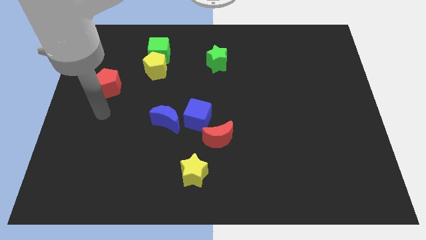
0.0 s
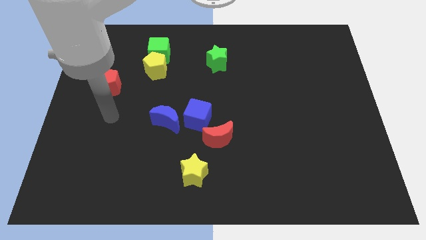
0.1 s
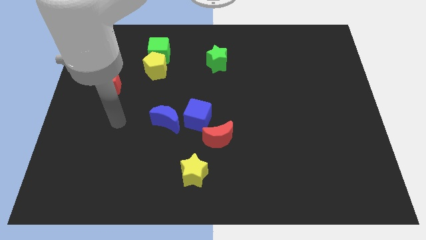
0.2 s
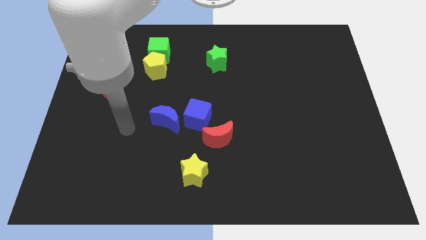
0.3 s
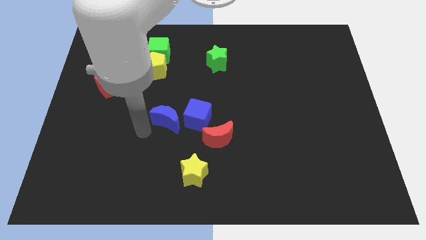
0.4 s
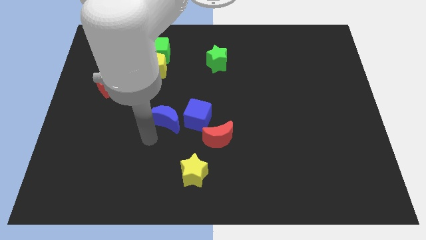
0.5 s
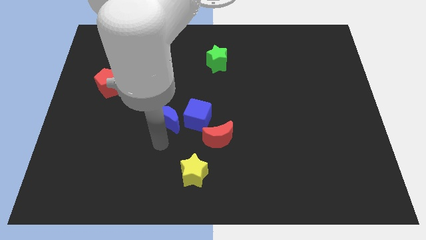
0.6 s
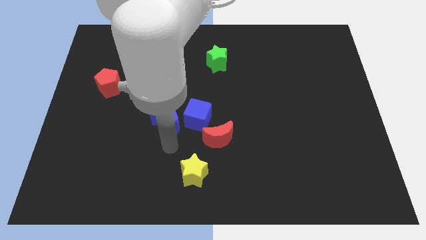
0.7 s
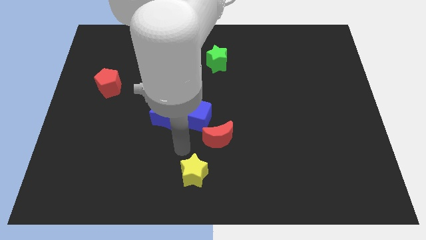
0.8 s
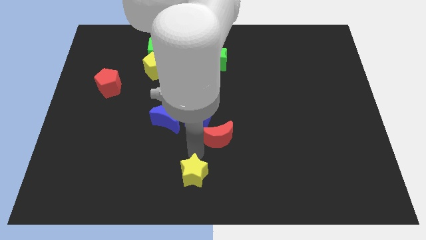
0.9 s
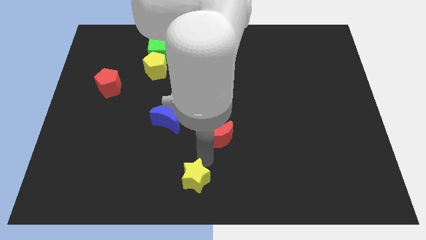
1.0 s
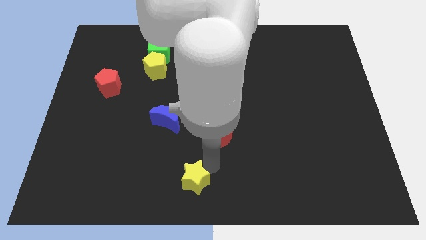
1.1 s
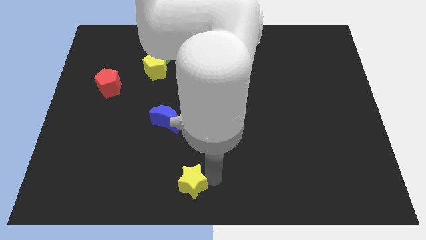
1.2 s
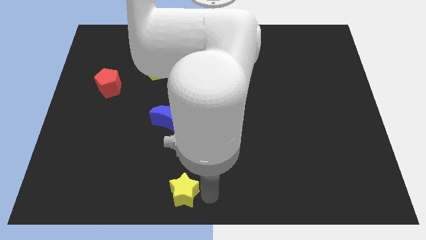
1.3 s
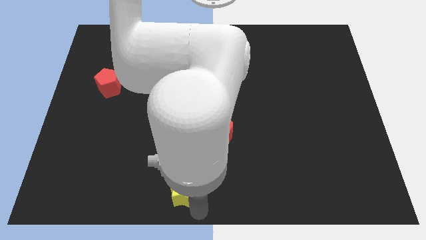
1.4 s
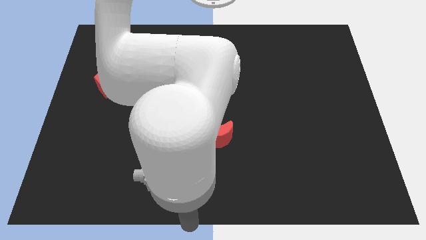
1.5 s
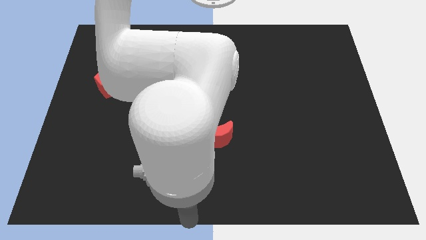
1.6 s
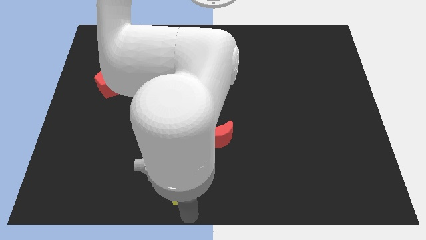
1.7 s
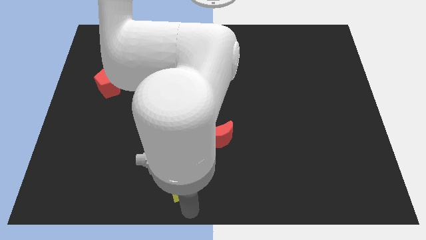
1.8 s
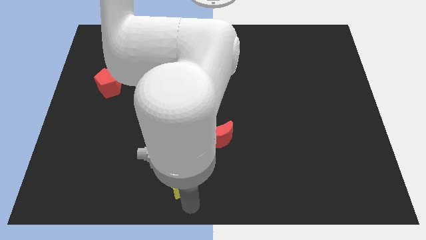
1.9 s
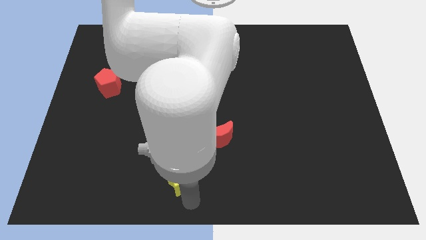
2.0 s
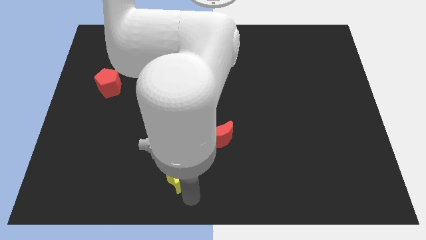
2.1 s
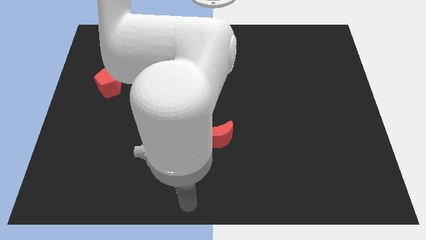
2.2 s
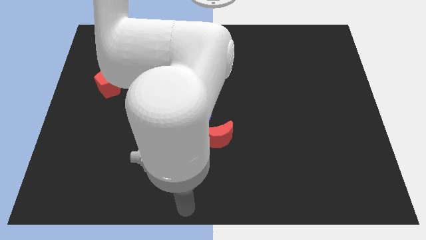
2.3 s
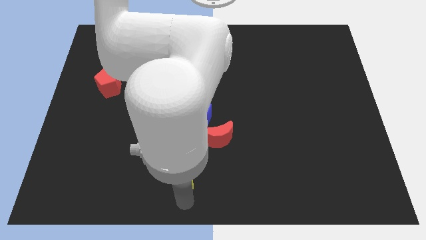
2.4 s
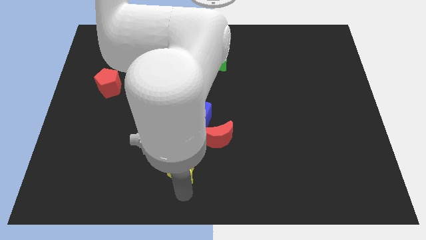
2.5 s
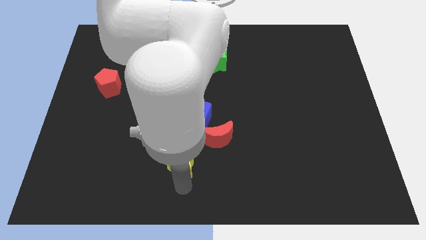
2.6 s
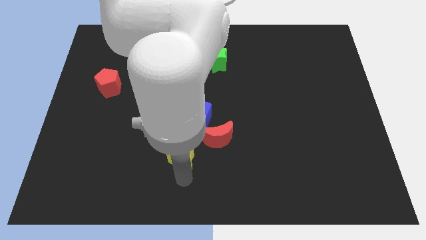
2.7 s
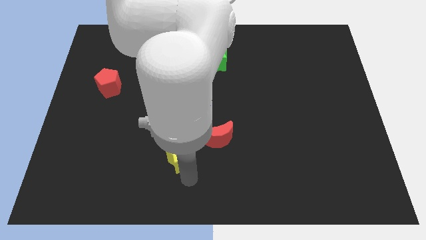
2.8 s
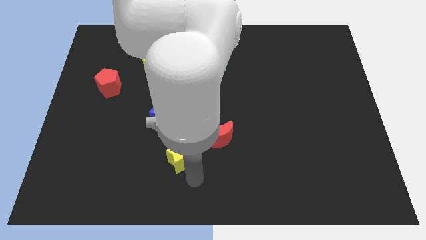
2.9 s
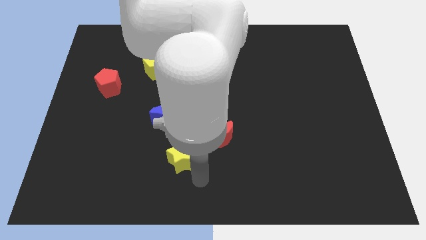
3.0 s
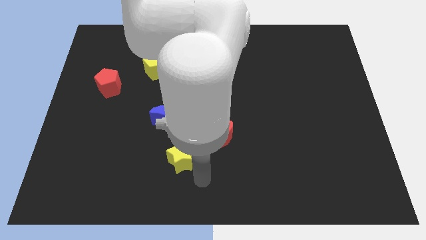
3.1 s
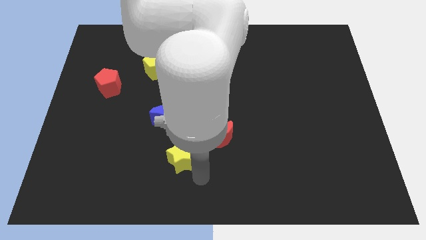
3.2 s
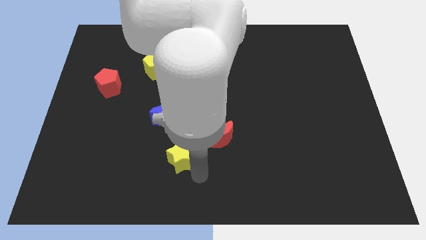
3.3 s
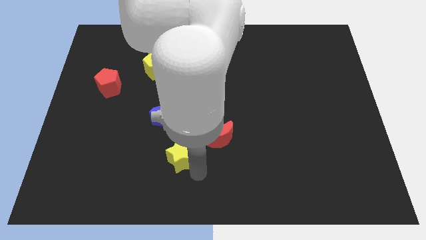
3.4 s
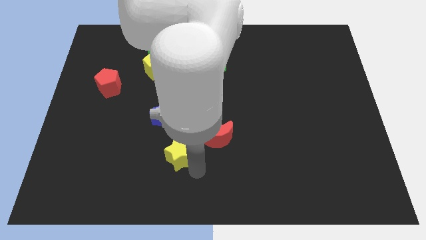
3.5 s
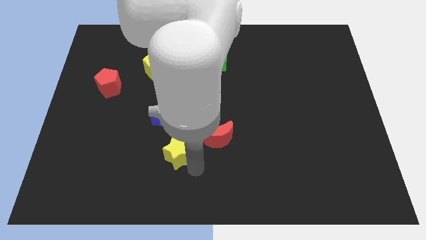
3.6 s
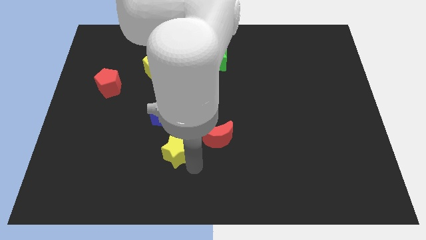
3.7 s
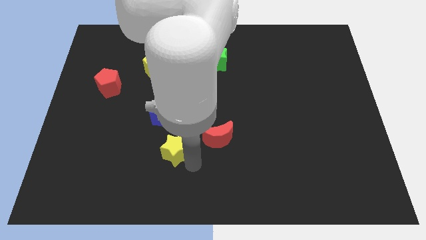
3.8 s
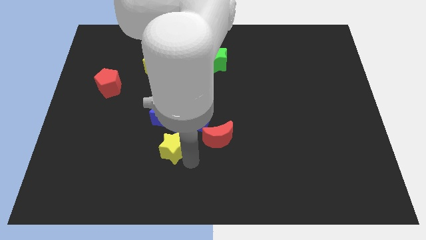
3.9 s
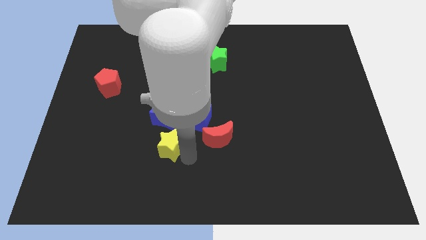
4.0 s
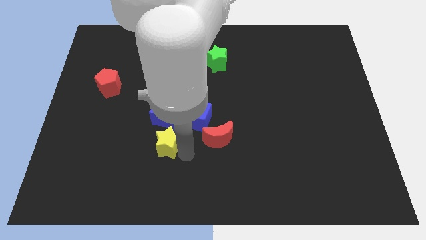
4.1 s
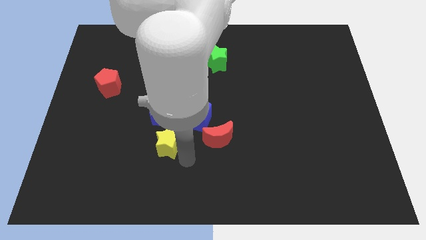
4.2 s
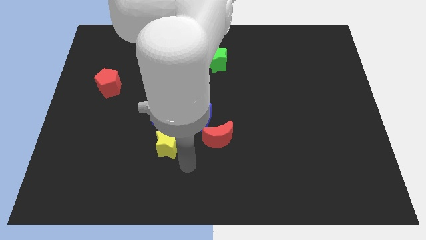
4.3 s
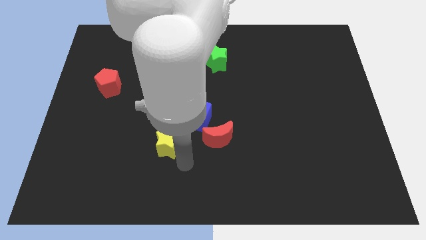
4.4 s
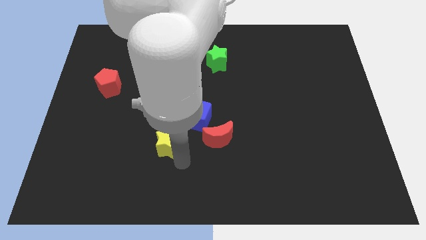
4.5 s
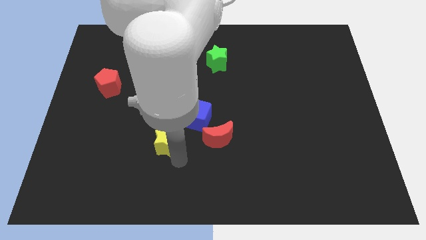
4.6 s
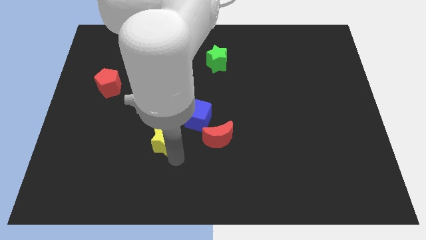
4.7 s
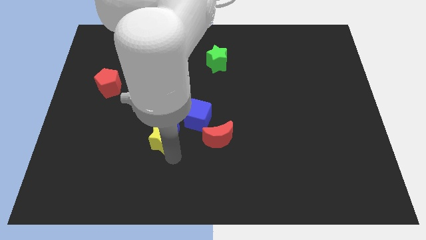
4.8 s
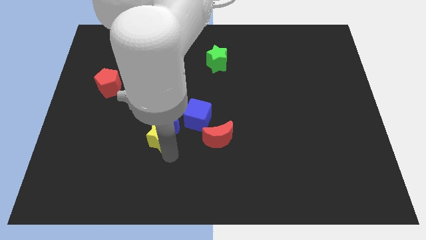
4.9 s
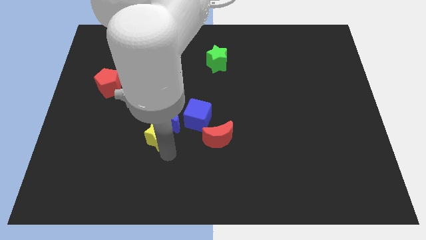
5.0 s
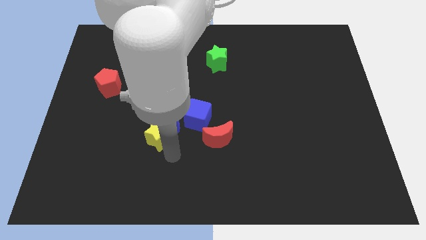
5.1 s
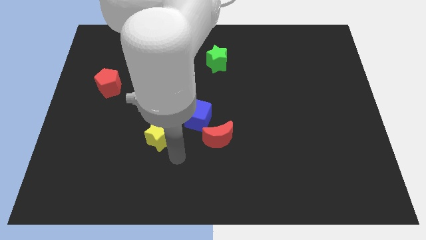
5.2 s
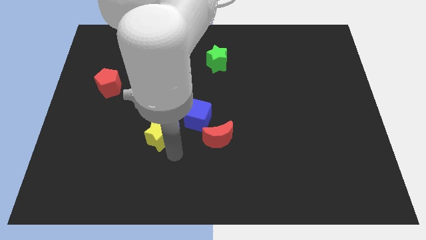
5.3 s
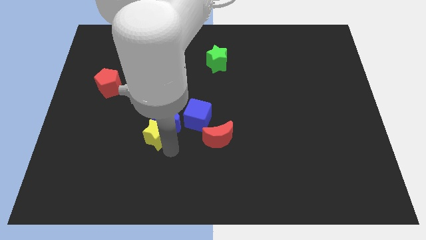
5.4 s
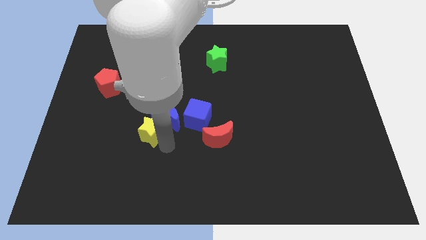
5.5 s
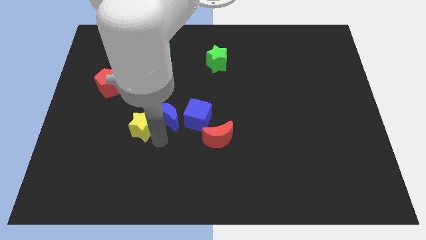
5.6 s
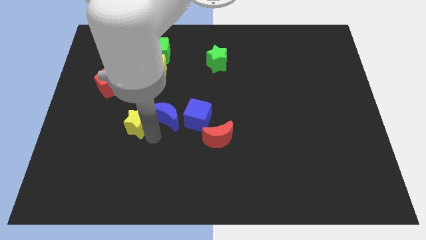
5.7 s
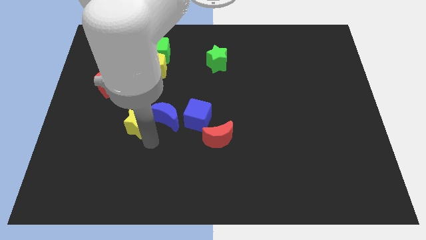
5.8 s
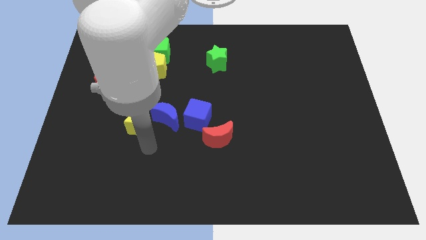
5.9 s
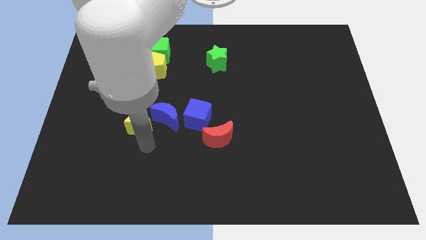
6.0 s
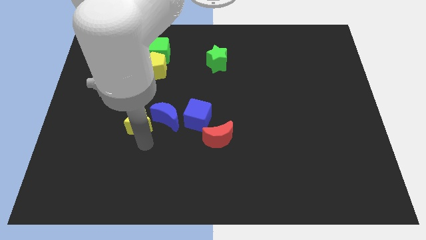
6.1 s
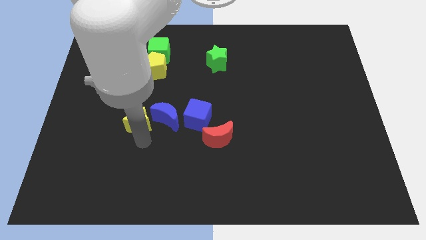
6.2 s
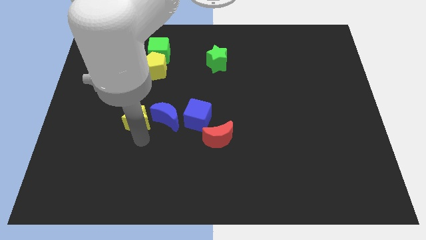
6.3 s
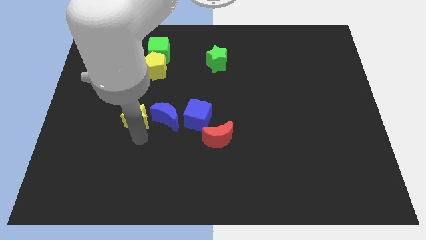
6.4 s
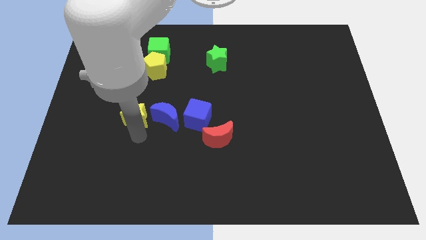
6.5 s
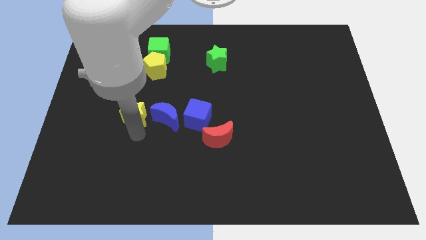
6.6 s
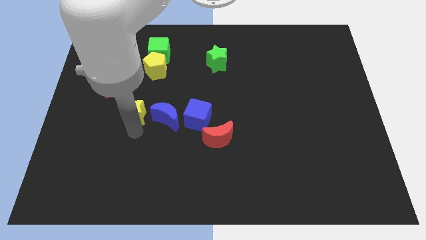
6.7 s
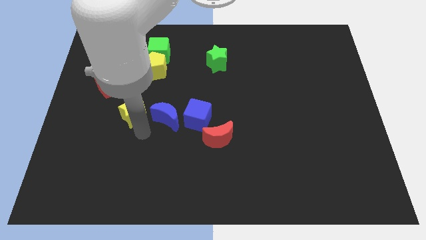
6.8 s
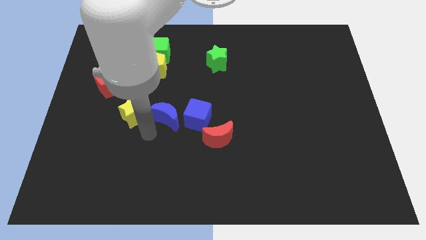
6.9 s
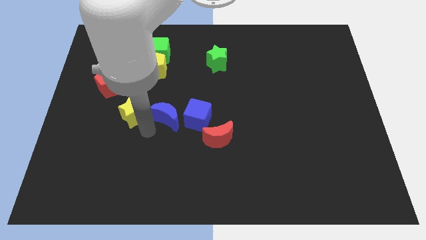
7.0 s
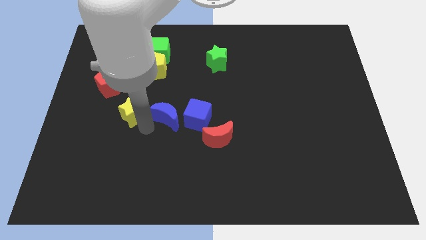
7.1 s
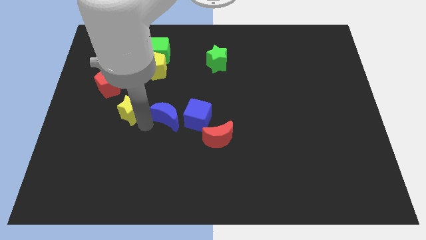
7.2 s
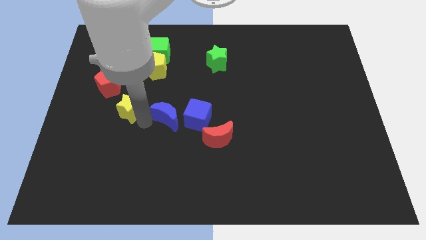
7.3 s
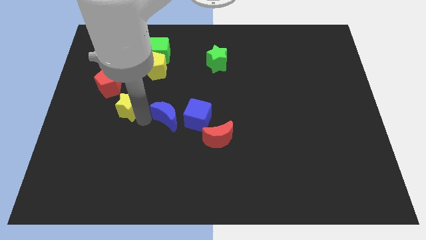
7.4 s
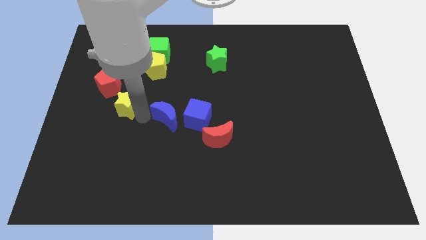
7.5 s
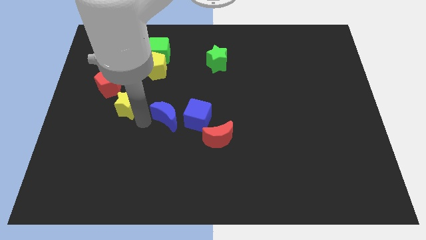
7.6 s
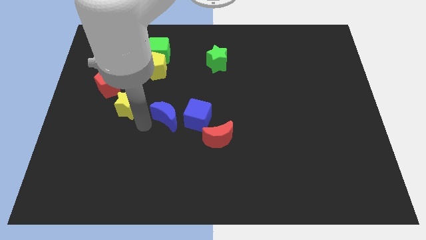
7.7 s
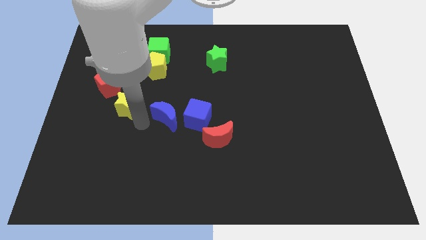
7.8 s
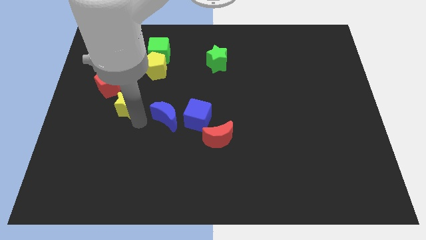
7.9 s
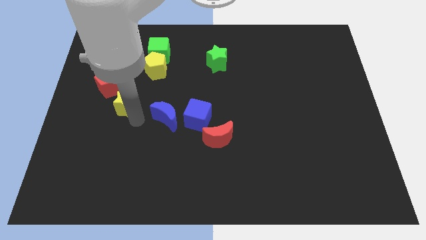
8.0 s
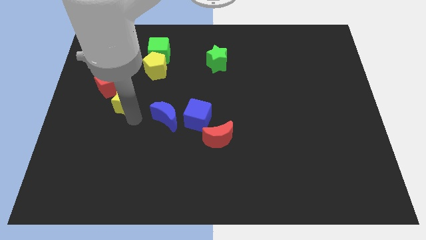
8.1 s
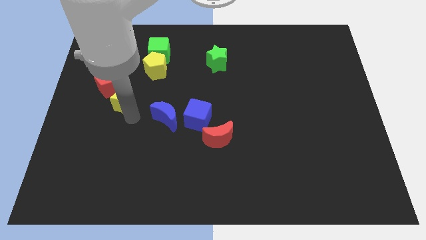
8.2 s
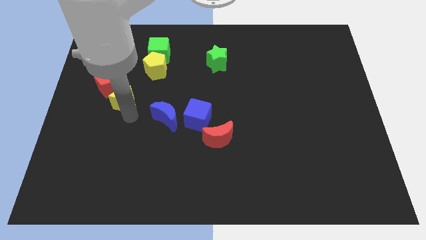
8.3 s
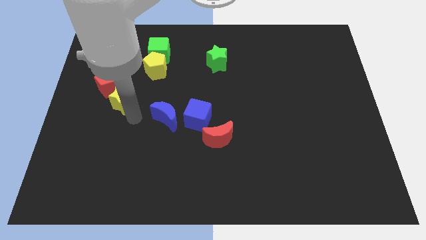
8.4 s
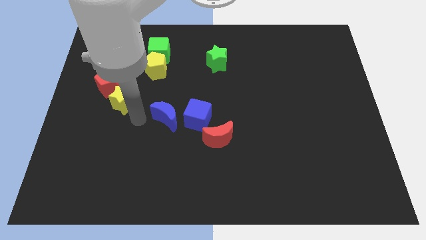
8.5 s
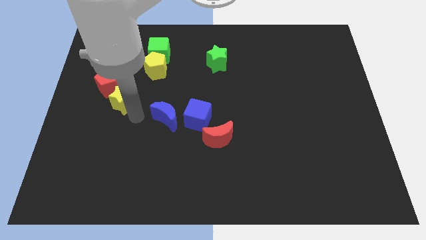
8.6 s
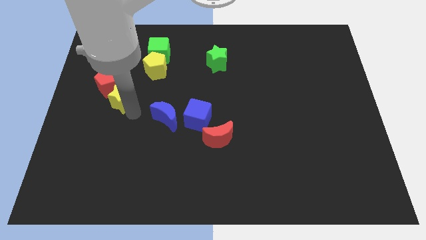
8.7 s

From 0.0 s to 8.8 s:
put the yellow star next to the red pentagon
